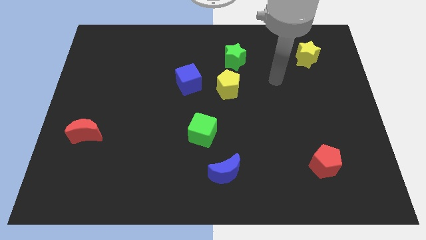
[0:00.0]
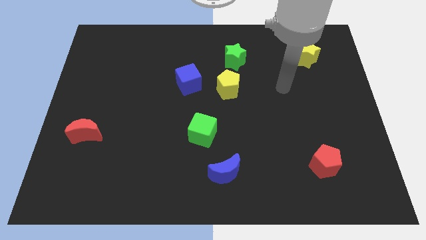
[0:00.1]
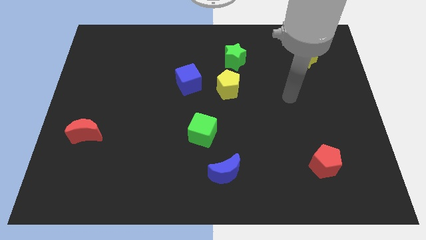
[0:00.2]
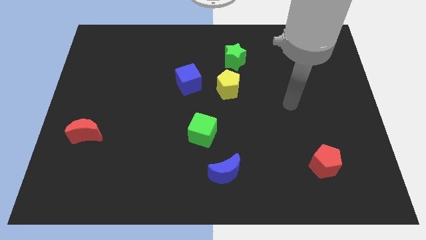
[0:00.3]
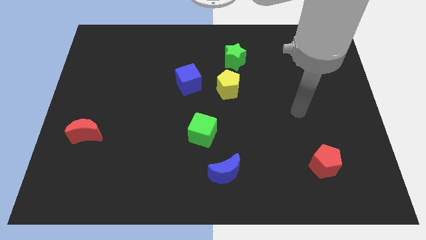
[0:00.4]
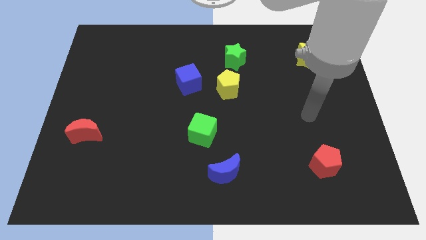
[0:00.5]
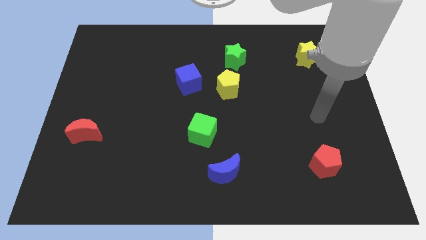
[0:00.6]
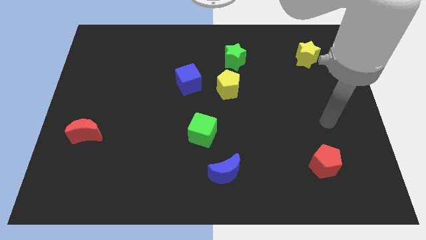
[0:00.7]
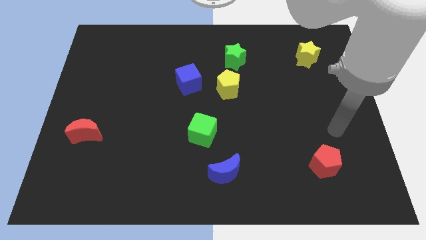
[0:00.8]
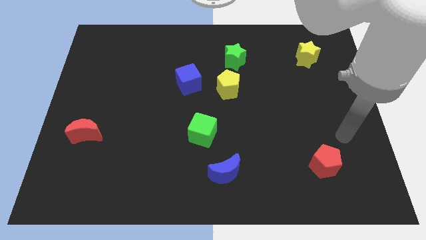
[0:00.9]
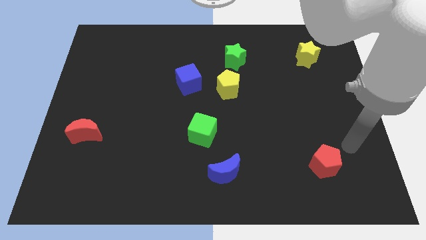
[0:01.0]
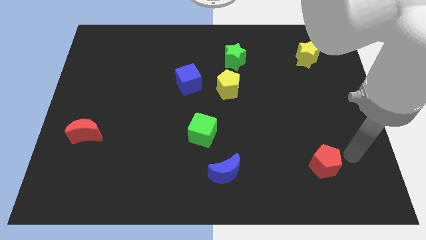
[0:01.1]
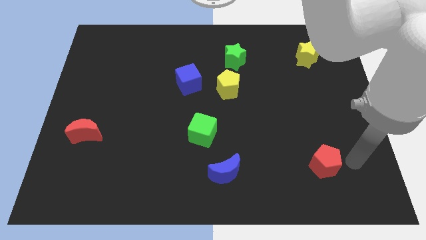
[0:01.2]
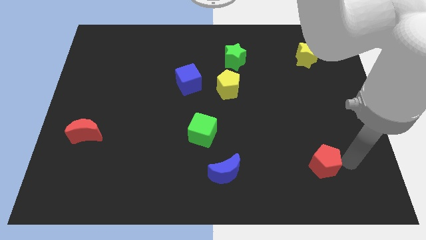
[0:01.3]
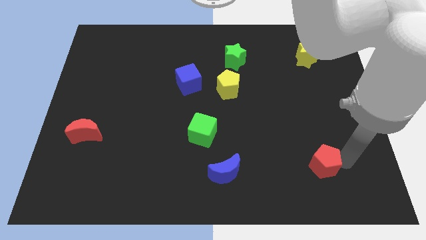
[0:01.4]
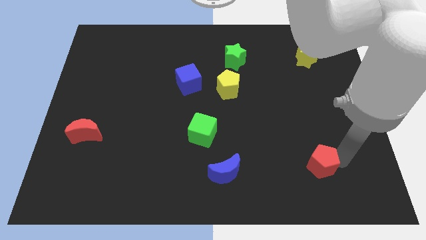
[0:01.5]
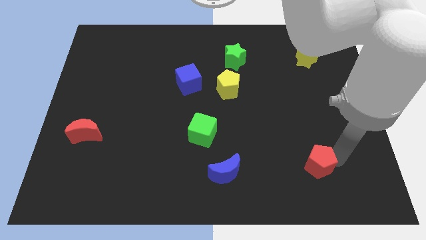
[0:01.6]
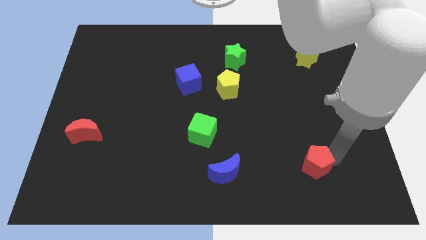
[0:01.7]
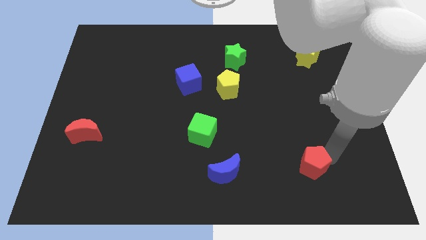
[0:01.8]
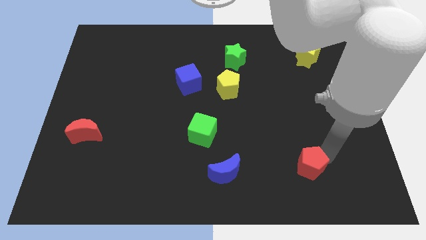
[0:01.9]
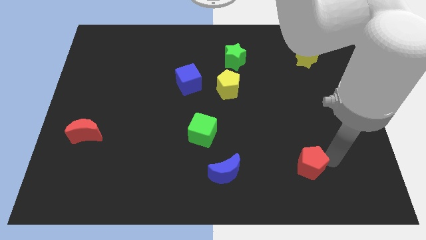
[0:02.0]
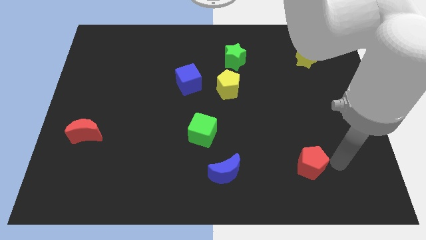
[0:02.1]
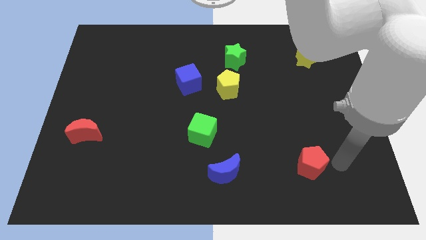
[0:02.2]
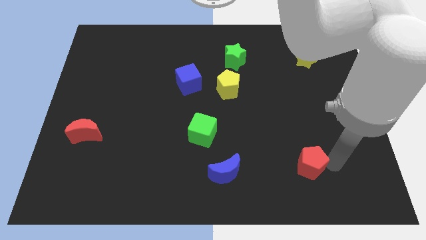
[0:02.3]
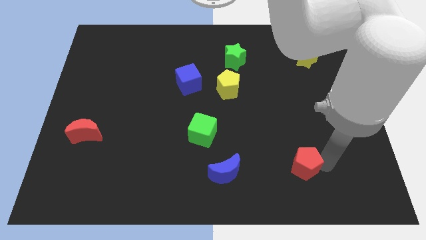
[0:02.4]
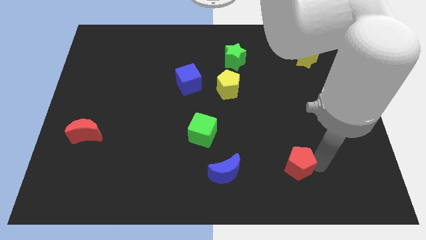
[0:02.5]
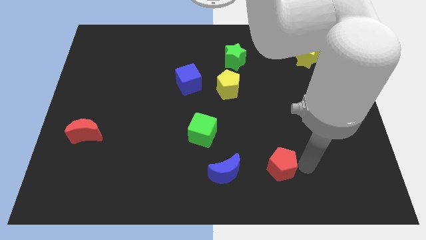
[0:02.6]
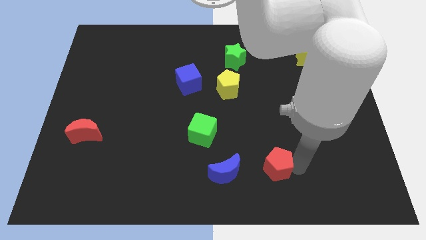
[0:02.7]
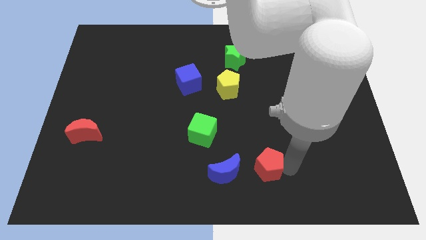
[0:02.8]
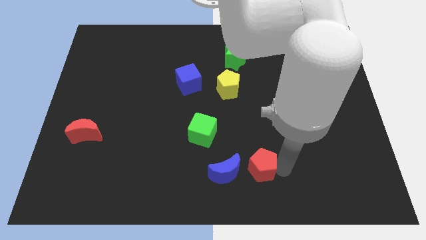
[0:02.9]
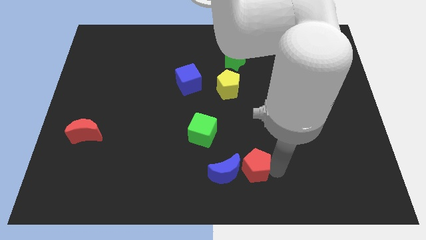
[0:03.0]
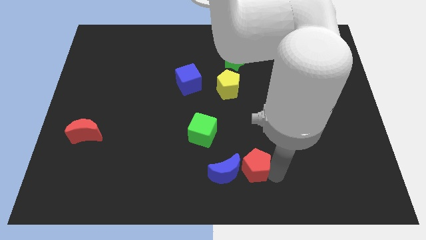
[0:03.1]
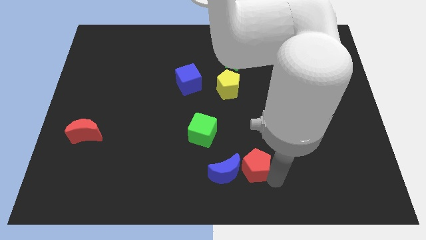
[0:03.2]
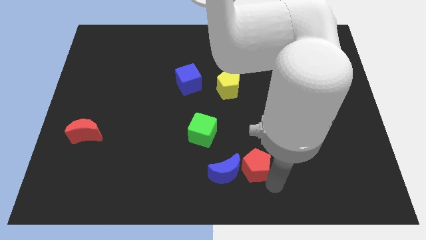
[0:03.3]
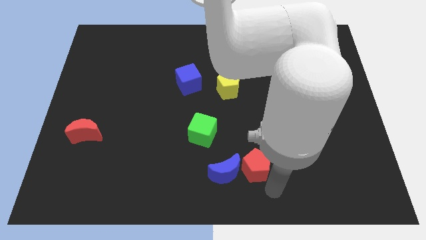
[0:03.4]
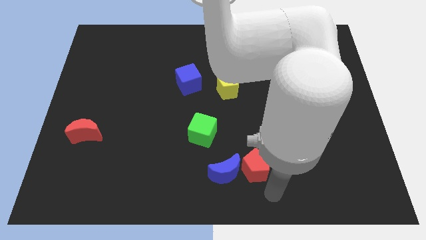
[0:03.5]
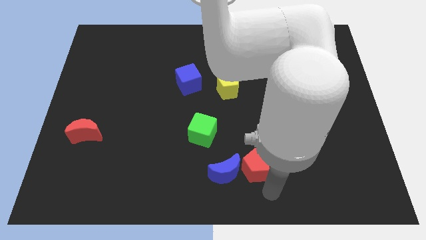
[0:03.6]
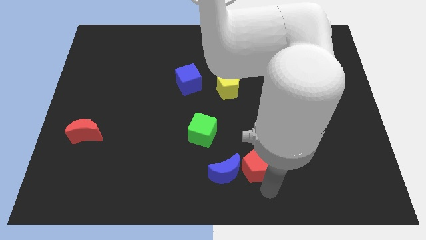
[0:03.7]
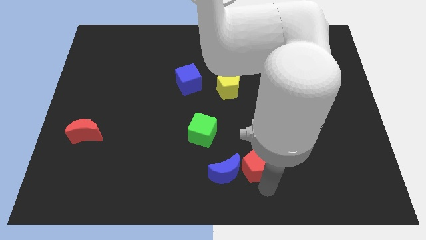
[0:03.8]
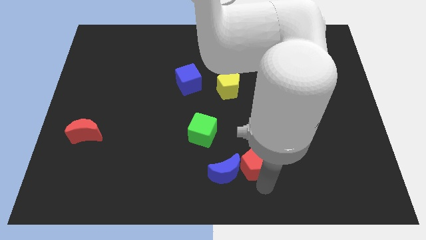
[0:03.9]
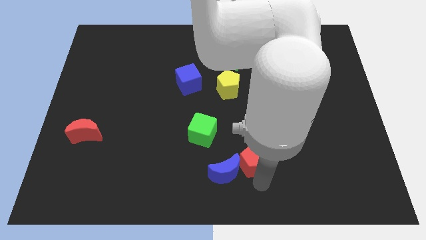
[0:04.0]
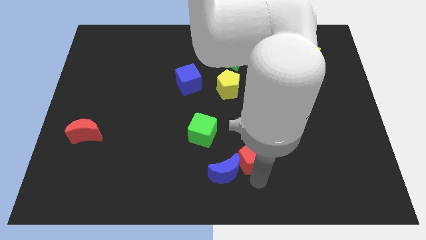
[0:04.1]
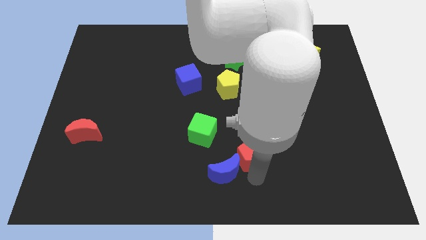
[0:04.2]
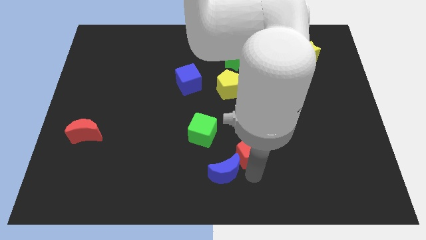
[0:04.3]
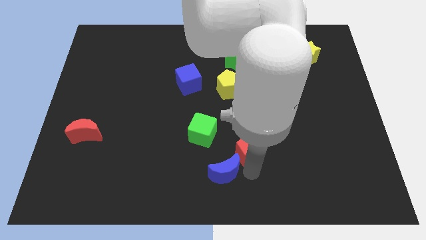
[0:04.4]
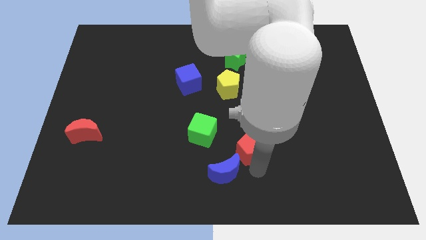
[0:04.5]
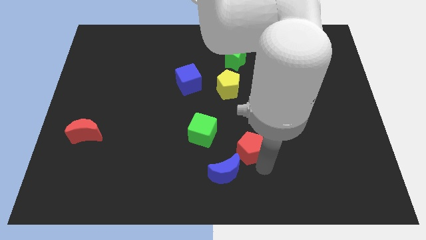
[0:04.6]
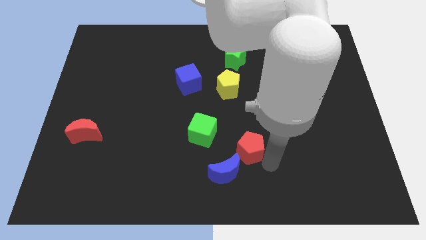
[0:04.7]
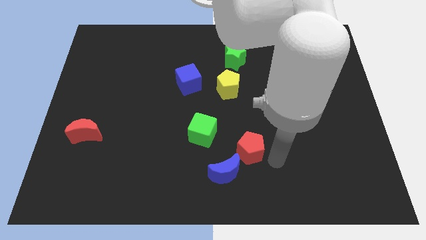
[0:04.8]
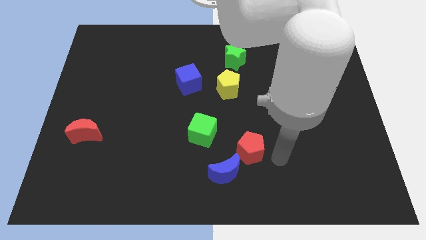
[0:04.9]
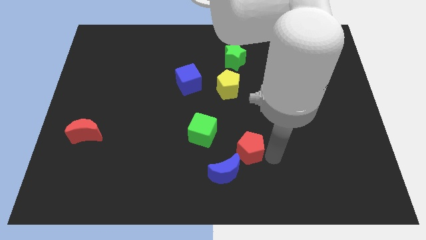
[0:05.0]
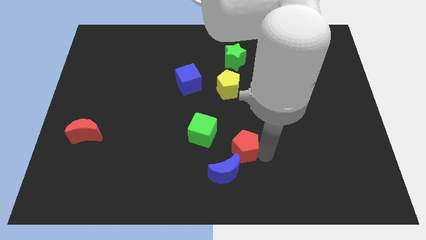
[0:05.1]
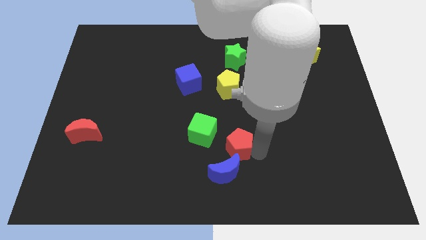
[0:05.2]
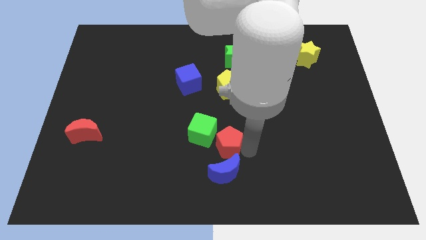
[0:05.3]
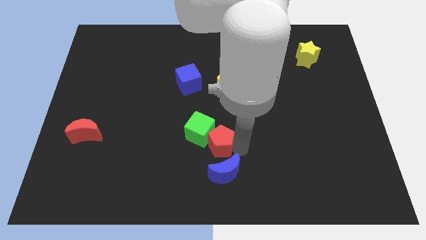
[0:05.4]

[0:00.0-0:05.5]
move the red pentagon to the green cube

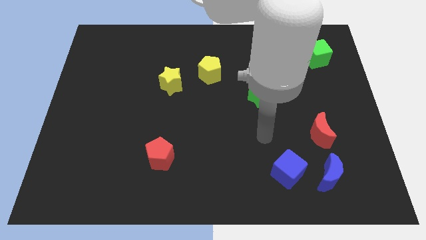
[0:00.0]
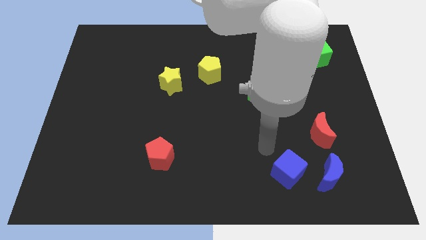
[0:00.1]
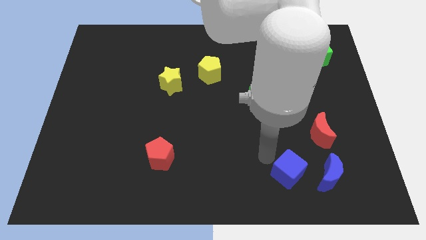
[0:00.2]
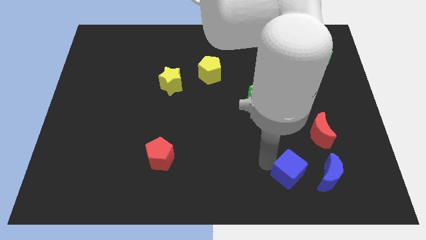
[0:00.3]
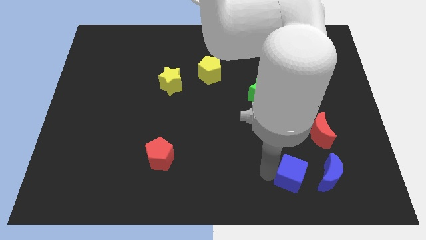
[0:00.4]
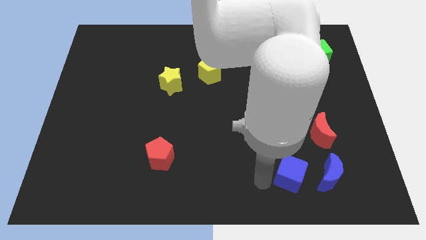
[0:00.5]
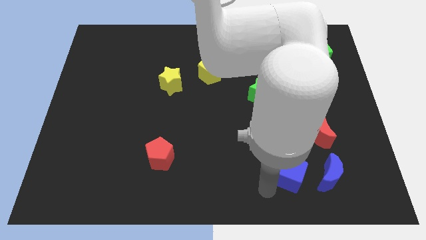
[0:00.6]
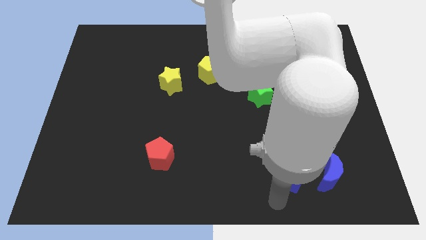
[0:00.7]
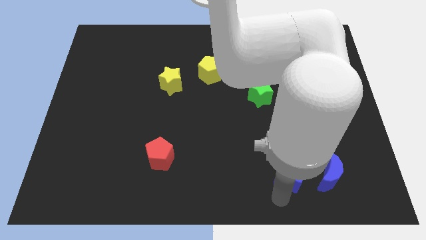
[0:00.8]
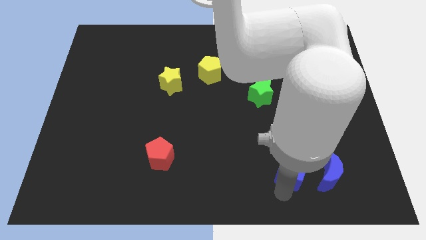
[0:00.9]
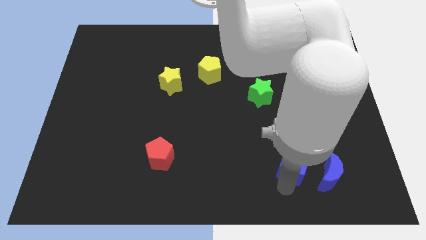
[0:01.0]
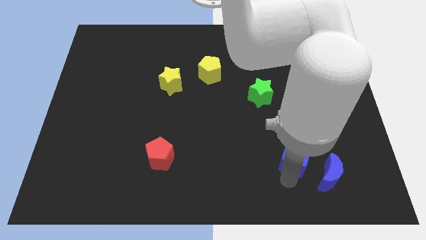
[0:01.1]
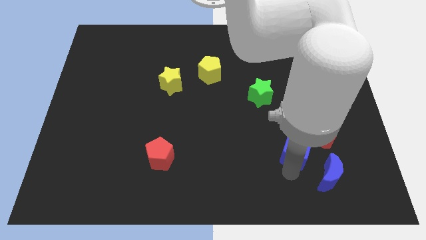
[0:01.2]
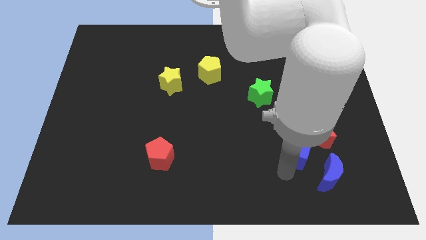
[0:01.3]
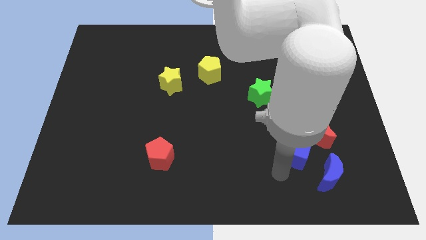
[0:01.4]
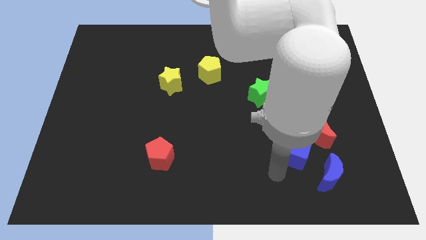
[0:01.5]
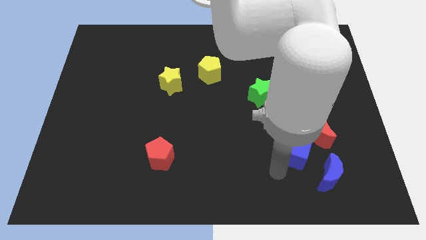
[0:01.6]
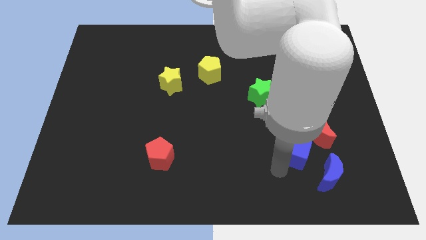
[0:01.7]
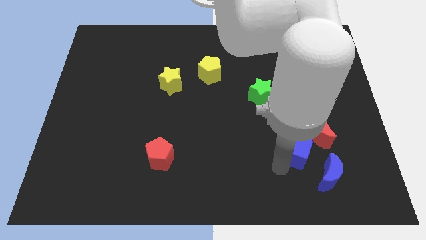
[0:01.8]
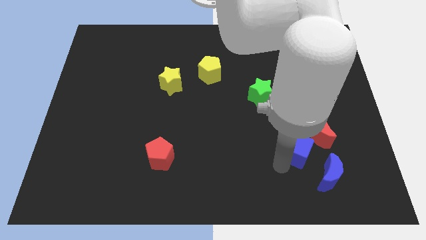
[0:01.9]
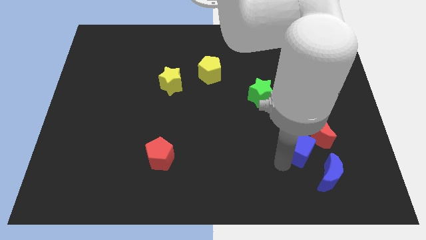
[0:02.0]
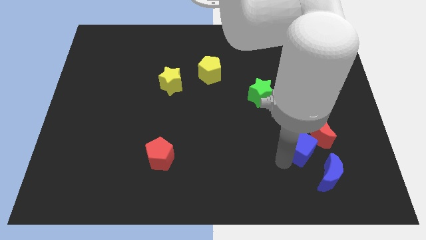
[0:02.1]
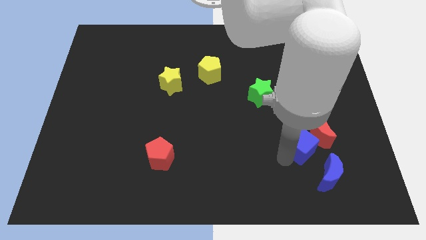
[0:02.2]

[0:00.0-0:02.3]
slide the blue cube close to the red moon
